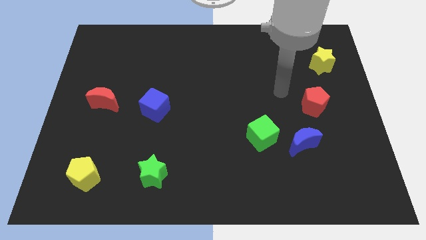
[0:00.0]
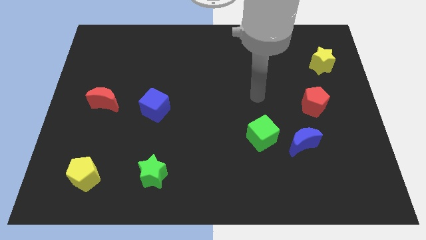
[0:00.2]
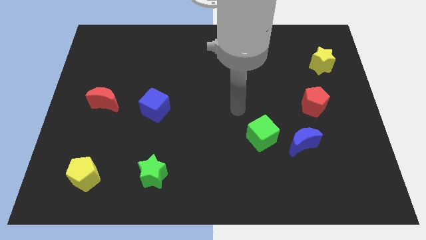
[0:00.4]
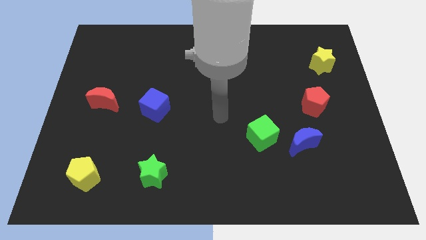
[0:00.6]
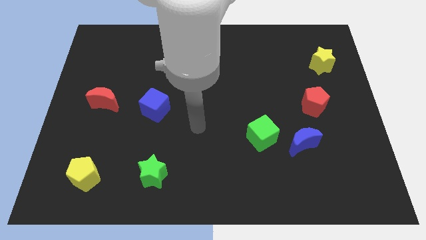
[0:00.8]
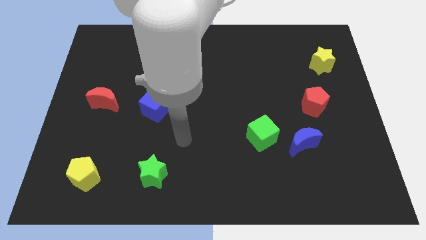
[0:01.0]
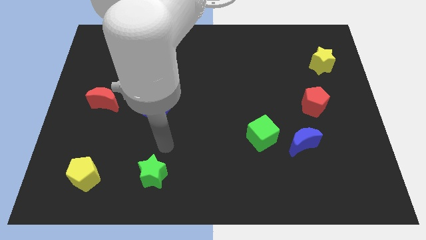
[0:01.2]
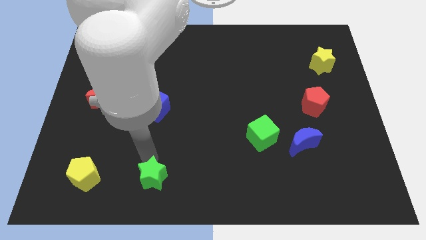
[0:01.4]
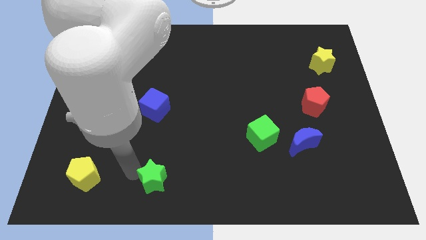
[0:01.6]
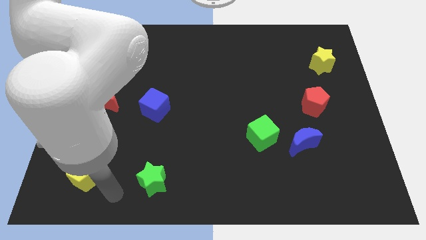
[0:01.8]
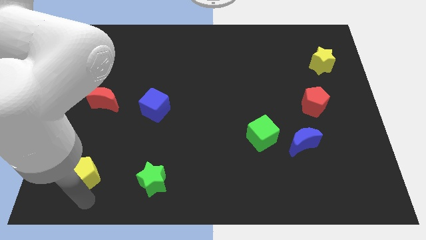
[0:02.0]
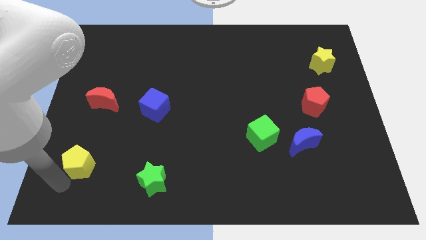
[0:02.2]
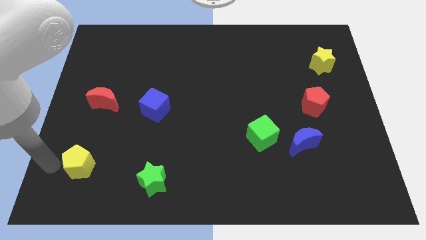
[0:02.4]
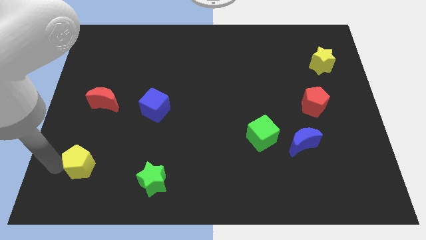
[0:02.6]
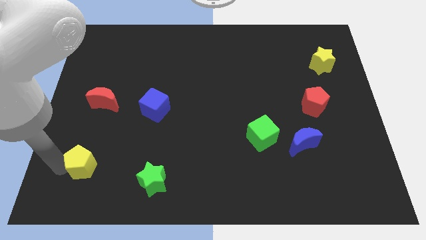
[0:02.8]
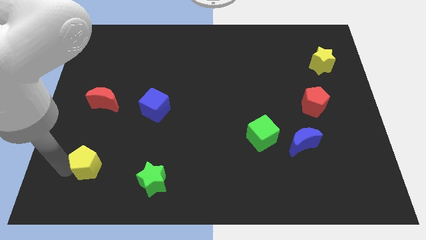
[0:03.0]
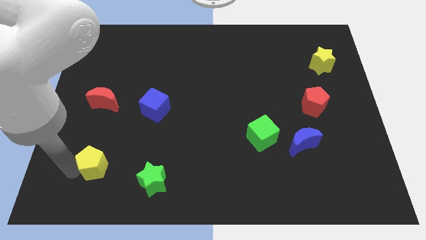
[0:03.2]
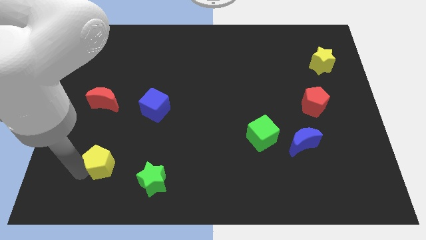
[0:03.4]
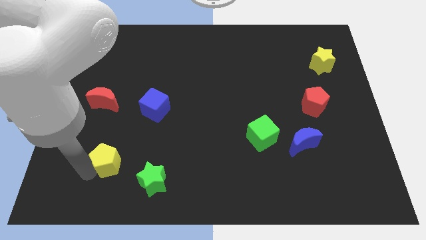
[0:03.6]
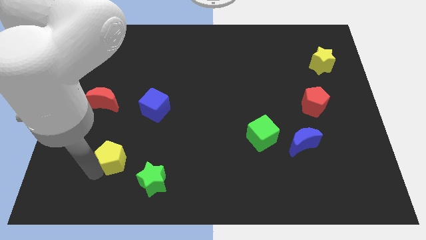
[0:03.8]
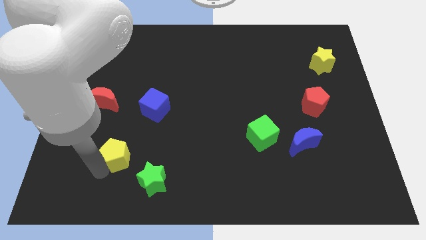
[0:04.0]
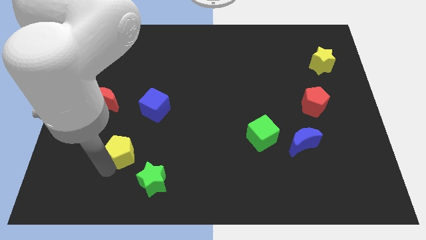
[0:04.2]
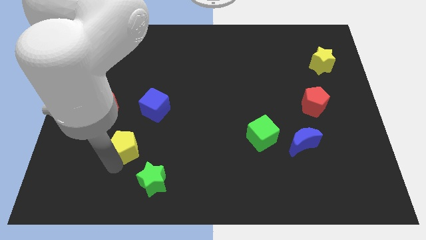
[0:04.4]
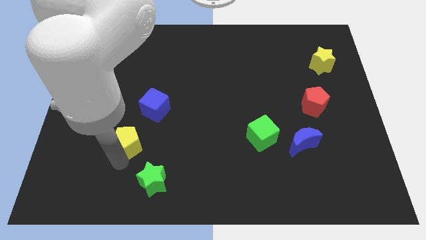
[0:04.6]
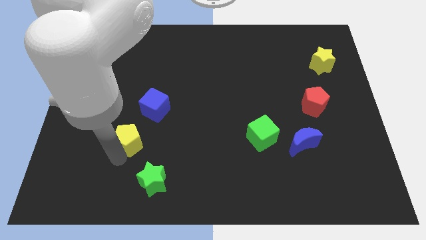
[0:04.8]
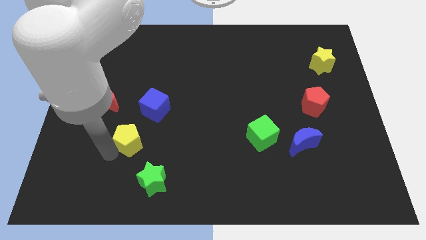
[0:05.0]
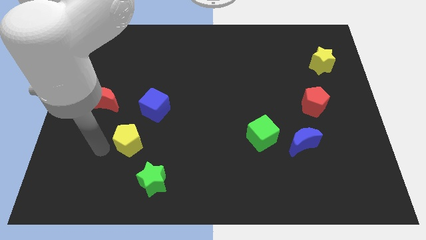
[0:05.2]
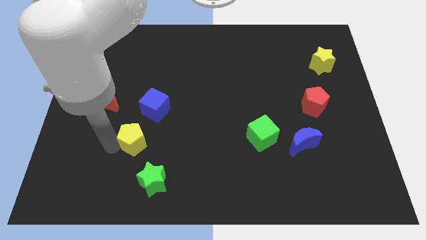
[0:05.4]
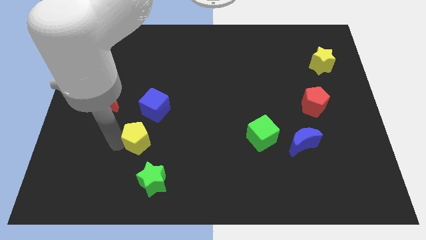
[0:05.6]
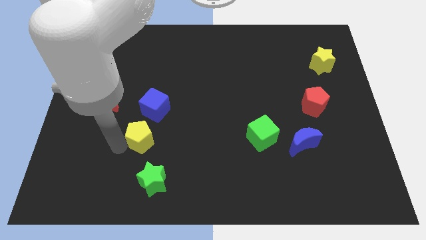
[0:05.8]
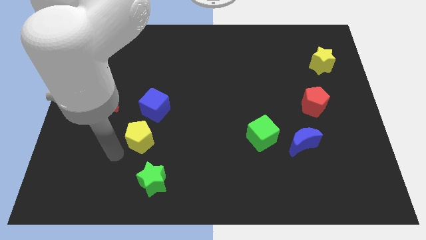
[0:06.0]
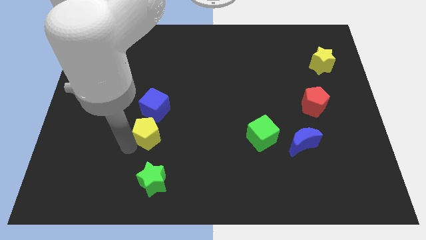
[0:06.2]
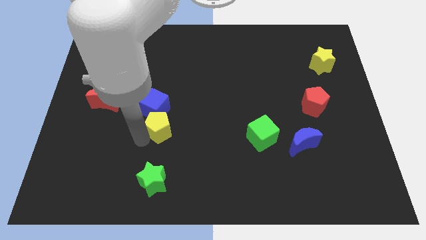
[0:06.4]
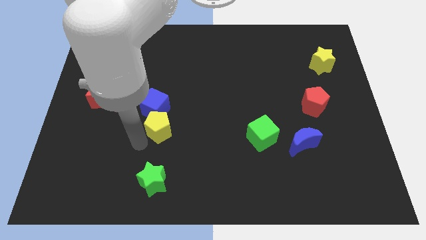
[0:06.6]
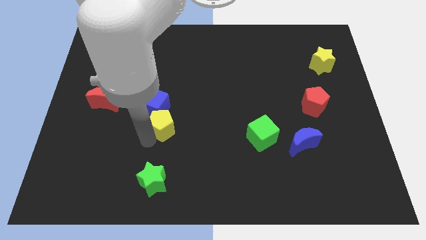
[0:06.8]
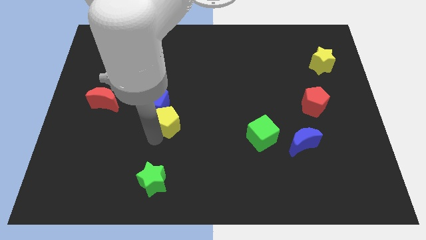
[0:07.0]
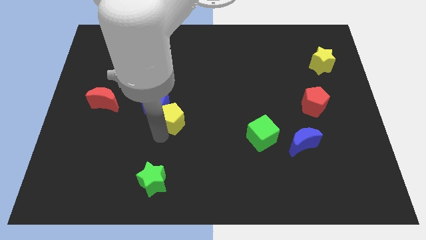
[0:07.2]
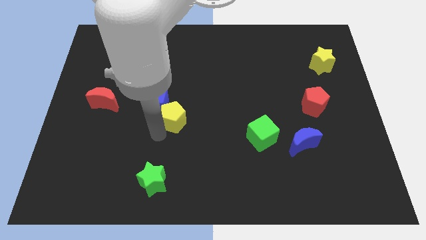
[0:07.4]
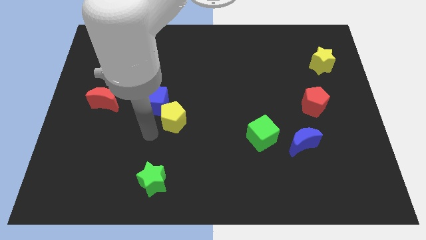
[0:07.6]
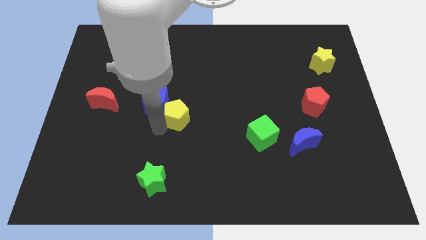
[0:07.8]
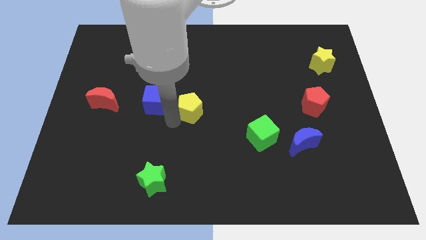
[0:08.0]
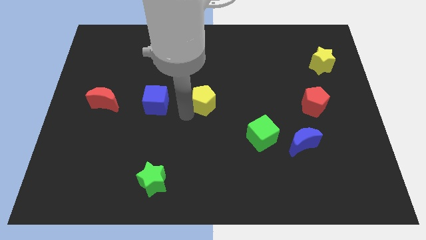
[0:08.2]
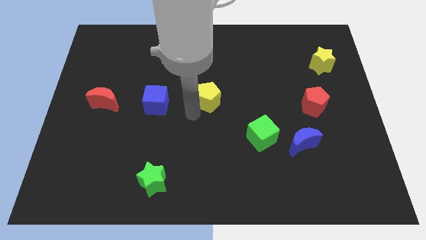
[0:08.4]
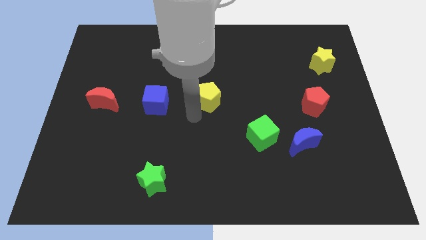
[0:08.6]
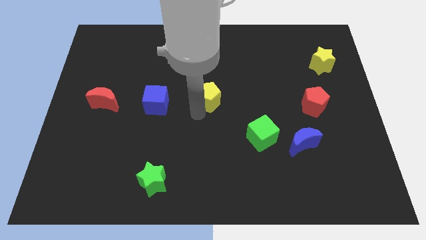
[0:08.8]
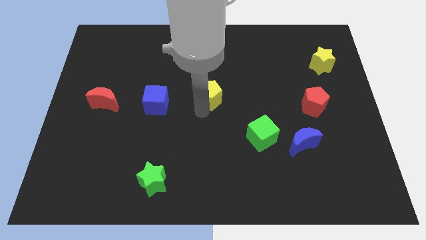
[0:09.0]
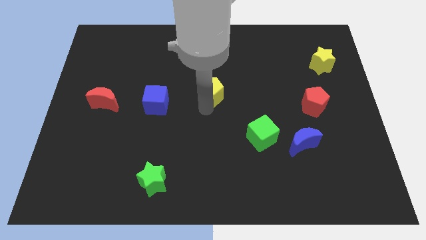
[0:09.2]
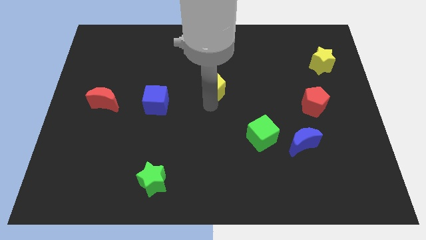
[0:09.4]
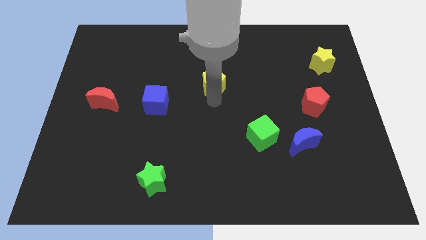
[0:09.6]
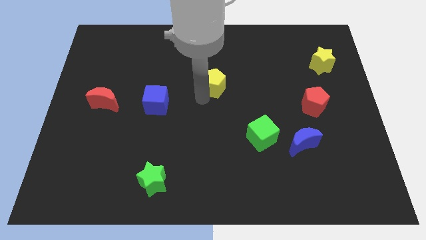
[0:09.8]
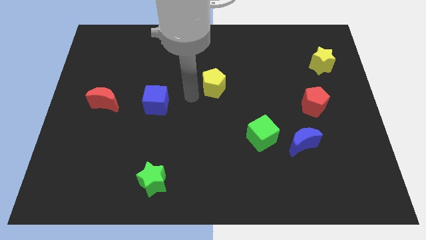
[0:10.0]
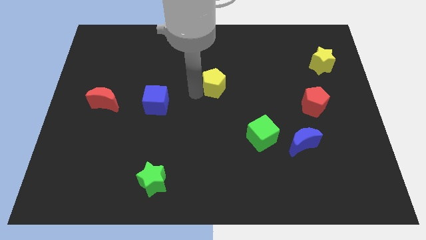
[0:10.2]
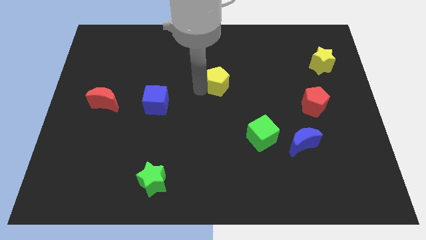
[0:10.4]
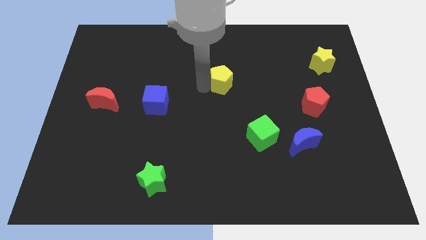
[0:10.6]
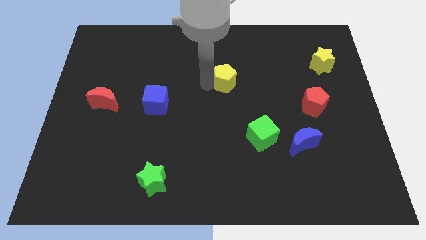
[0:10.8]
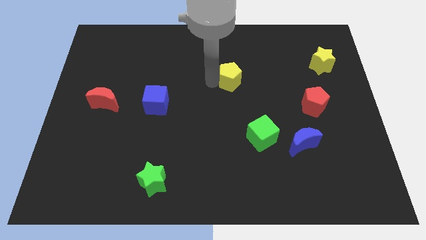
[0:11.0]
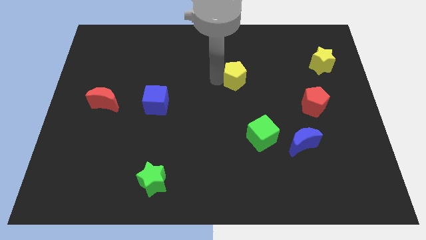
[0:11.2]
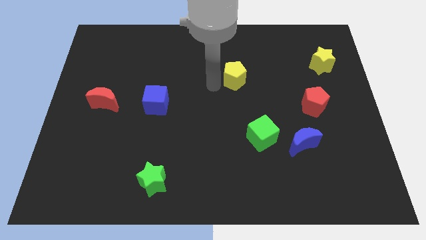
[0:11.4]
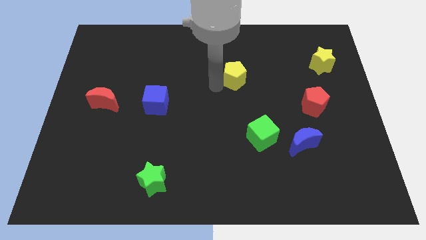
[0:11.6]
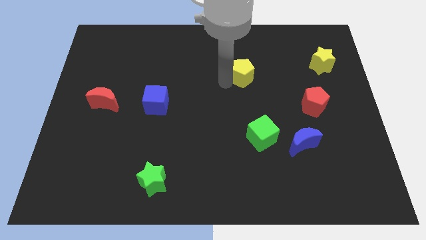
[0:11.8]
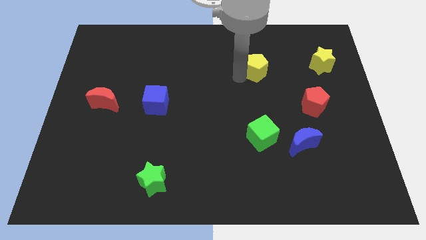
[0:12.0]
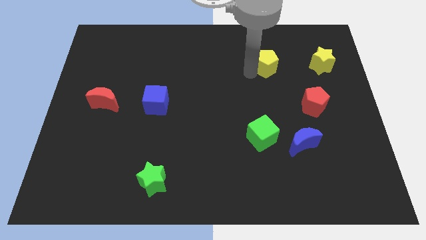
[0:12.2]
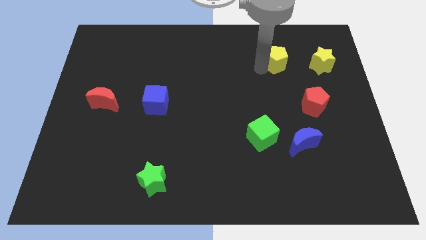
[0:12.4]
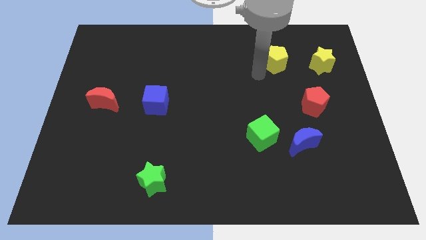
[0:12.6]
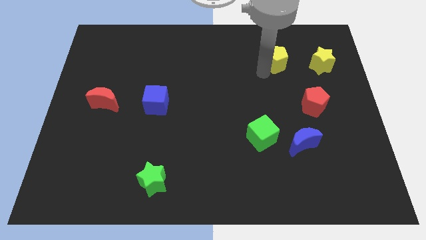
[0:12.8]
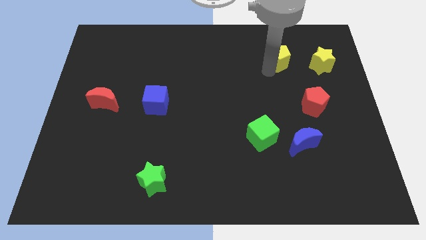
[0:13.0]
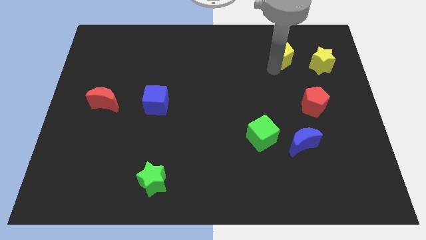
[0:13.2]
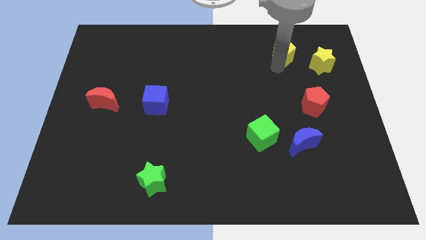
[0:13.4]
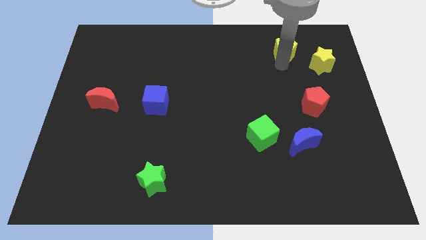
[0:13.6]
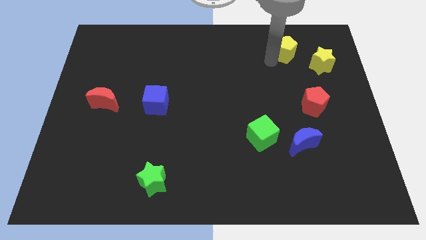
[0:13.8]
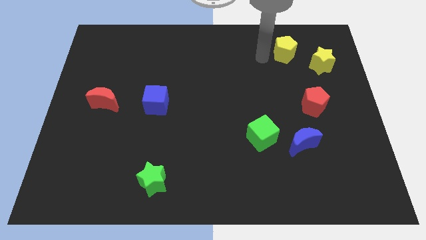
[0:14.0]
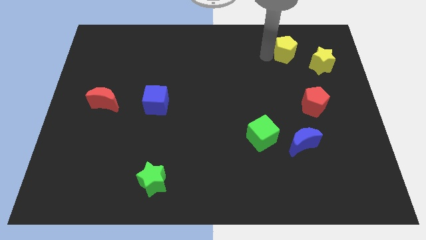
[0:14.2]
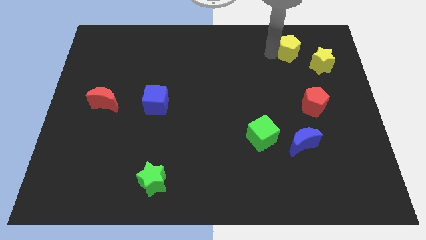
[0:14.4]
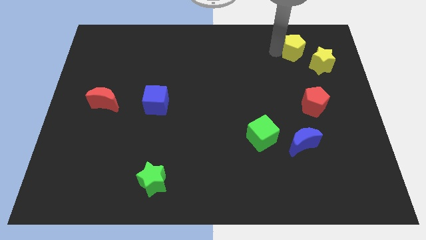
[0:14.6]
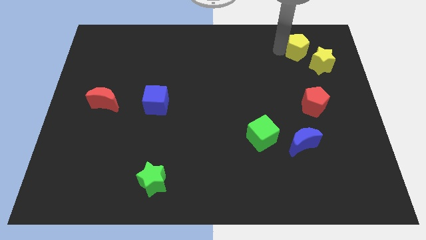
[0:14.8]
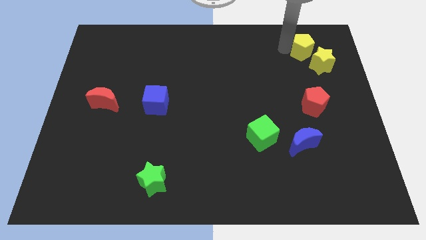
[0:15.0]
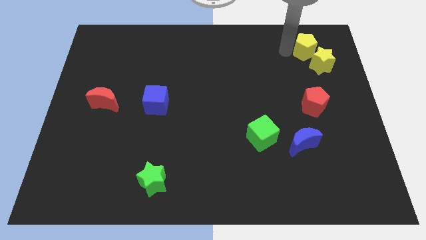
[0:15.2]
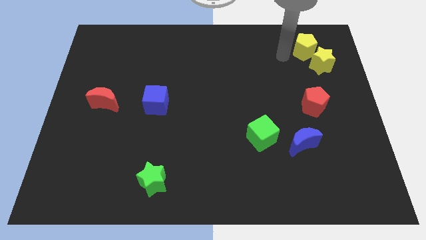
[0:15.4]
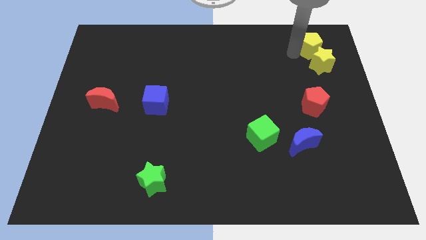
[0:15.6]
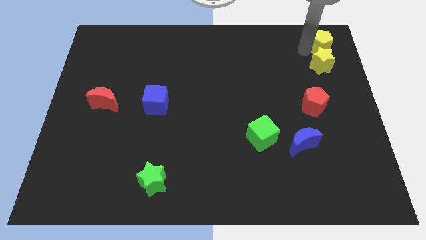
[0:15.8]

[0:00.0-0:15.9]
put the yellow pentagon to the top right corner
